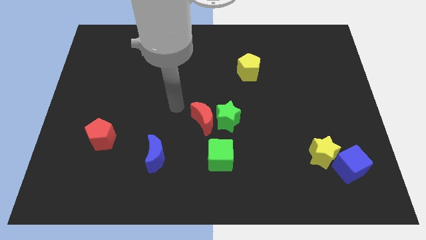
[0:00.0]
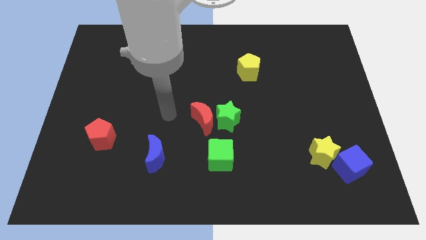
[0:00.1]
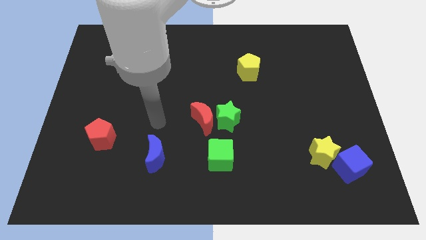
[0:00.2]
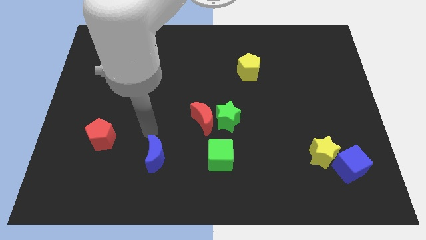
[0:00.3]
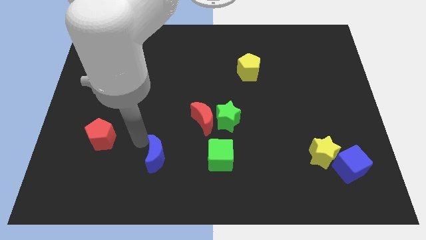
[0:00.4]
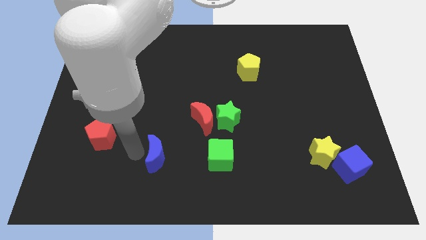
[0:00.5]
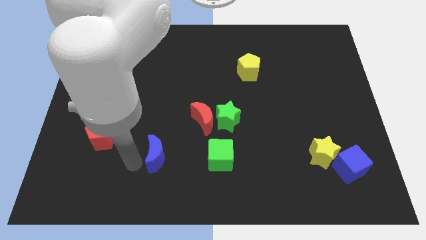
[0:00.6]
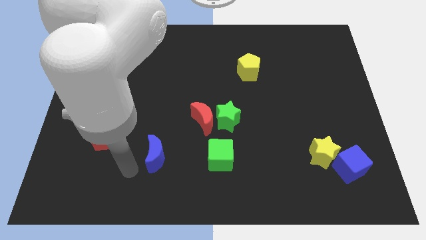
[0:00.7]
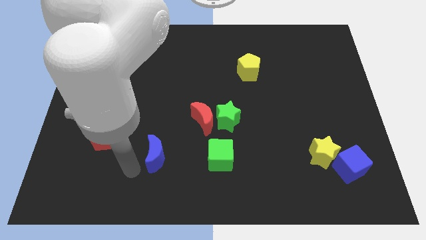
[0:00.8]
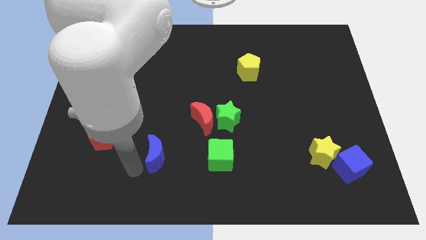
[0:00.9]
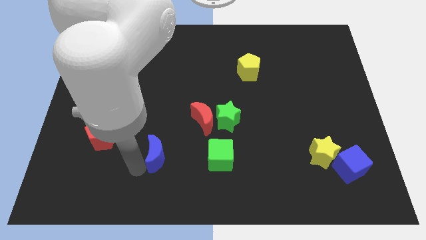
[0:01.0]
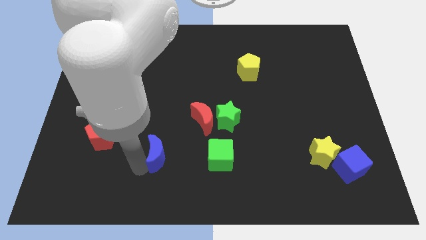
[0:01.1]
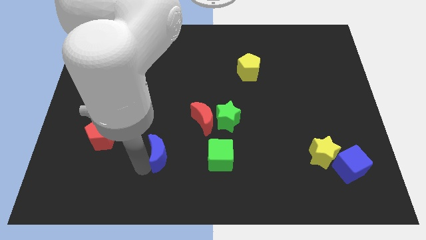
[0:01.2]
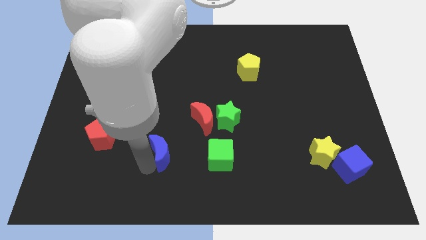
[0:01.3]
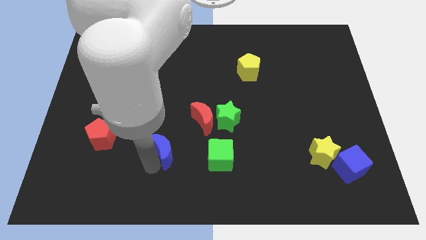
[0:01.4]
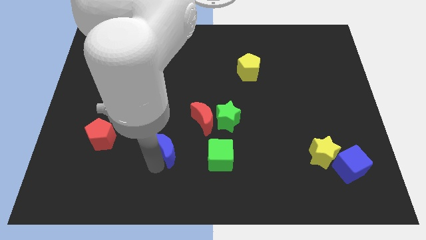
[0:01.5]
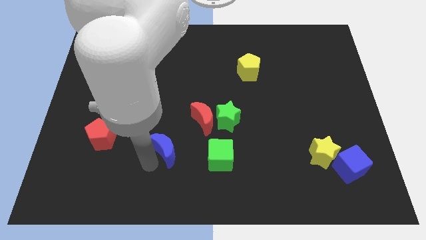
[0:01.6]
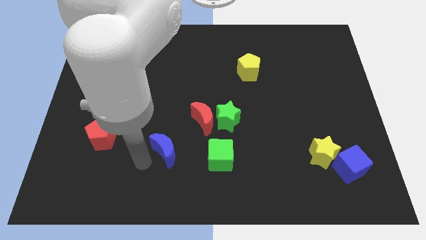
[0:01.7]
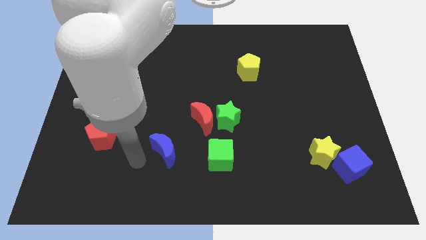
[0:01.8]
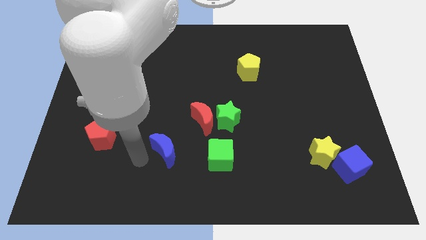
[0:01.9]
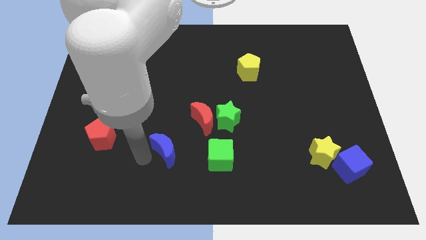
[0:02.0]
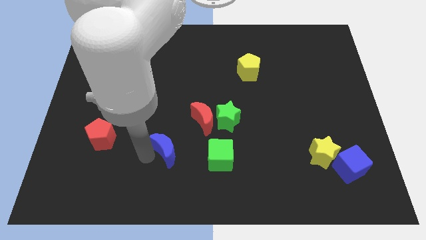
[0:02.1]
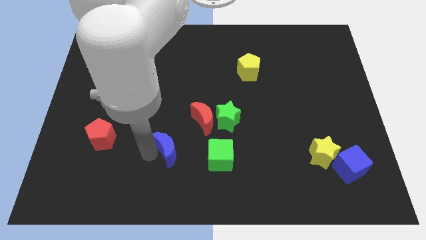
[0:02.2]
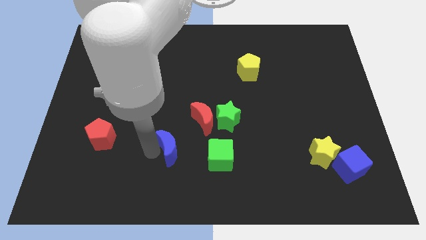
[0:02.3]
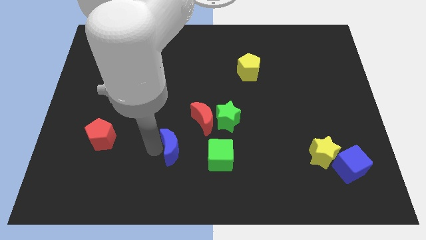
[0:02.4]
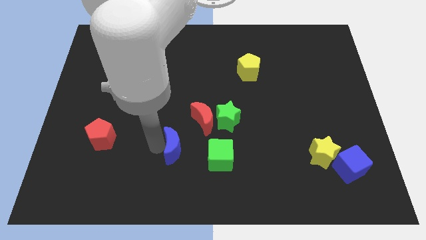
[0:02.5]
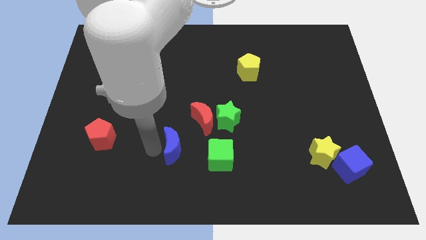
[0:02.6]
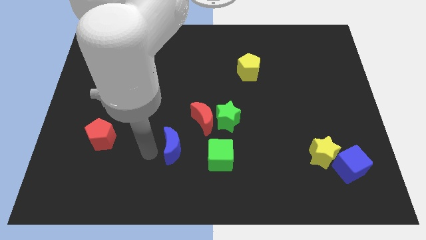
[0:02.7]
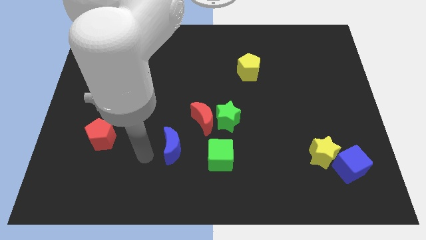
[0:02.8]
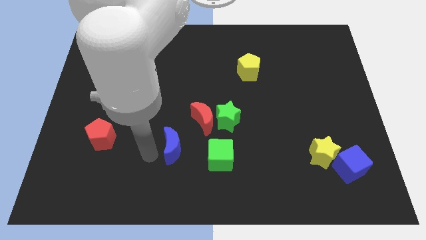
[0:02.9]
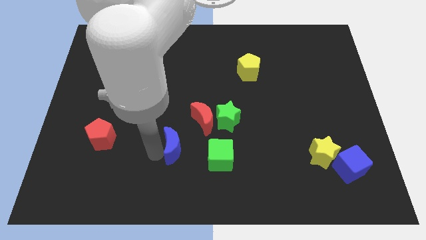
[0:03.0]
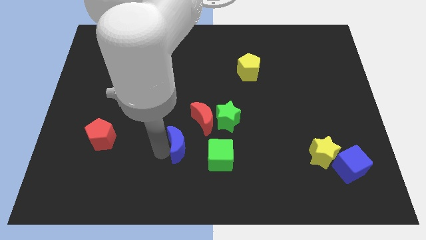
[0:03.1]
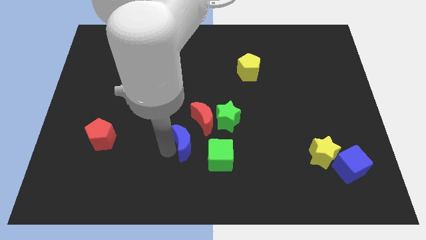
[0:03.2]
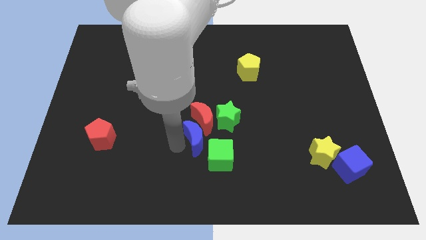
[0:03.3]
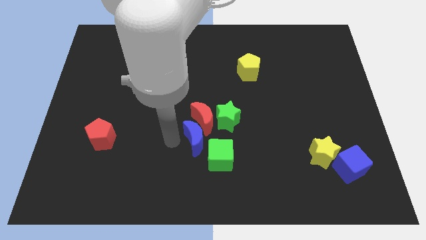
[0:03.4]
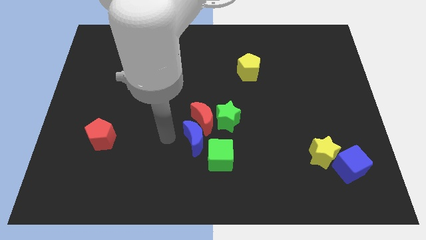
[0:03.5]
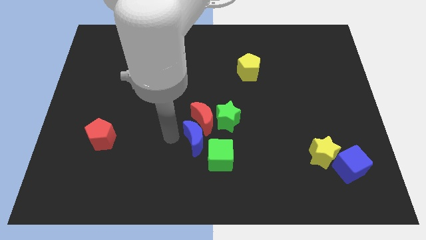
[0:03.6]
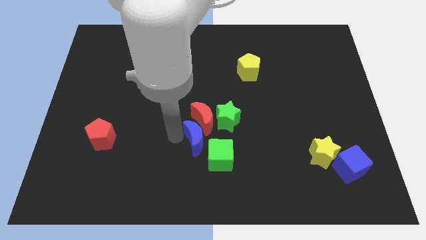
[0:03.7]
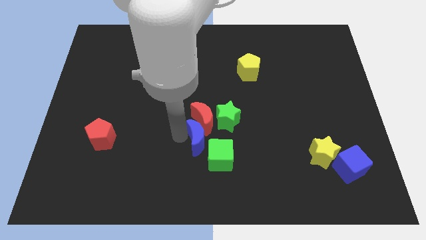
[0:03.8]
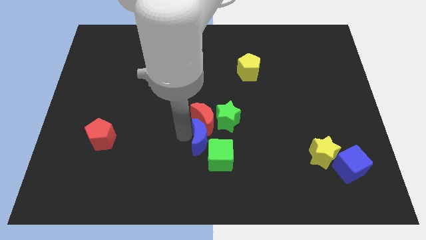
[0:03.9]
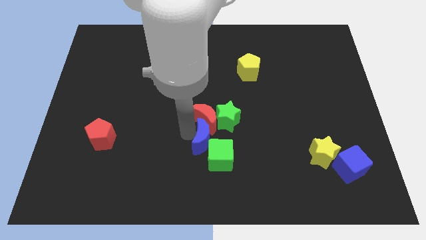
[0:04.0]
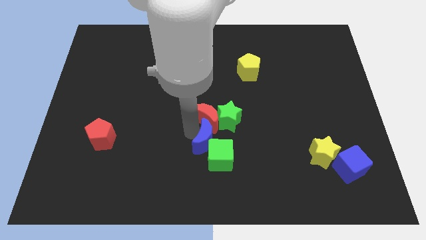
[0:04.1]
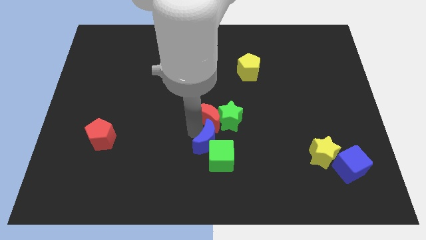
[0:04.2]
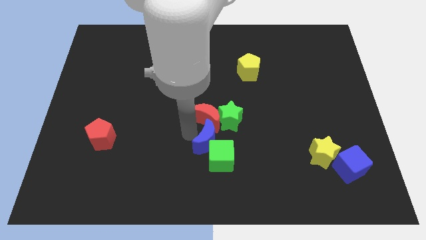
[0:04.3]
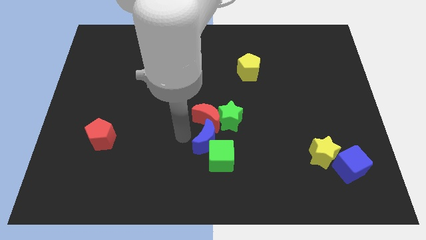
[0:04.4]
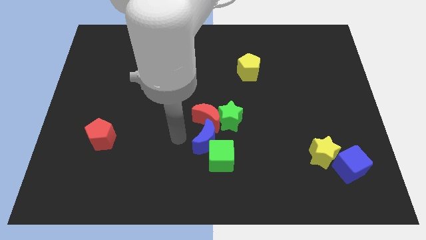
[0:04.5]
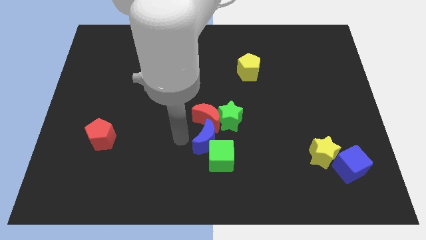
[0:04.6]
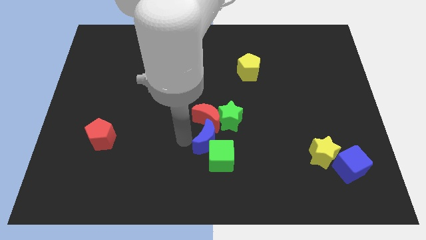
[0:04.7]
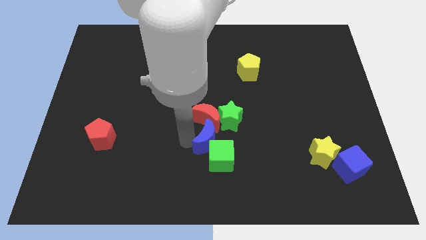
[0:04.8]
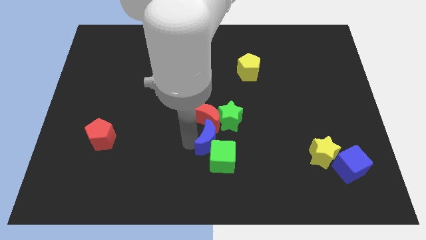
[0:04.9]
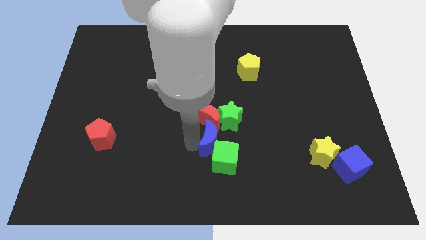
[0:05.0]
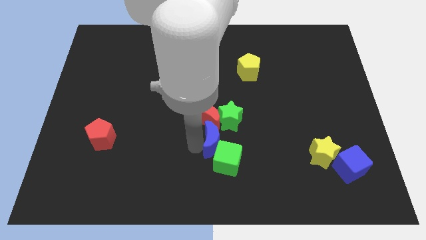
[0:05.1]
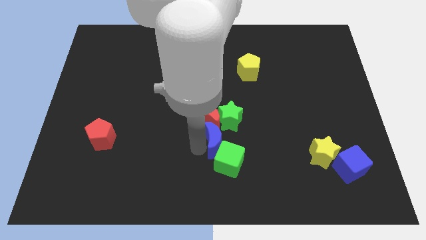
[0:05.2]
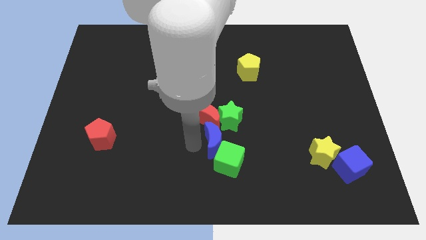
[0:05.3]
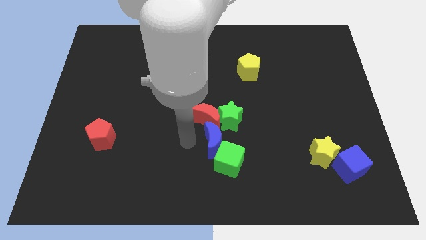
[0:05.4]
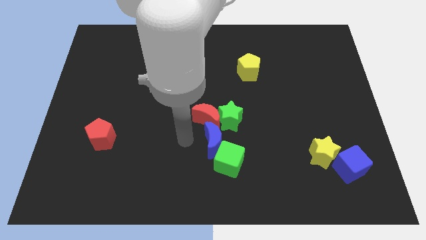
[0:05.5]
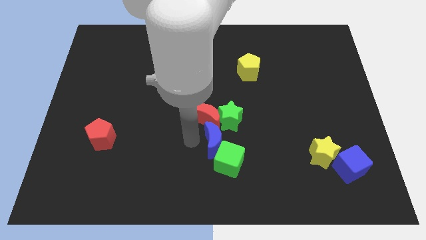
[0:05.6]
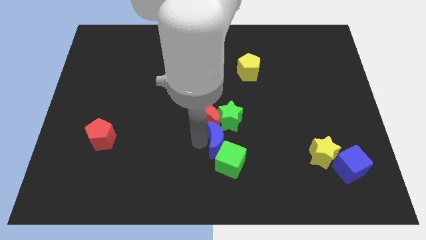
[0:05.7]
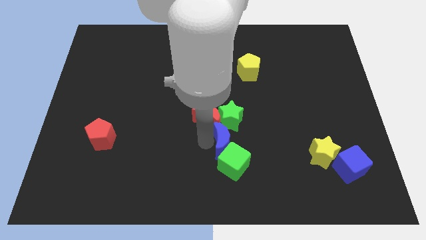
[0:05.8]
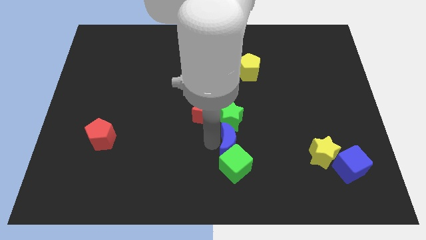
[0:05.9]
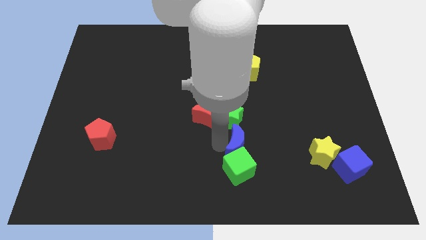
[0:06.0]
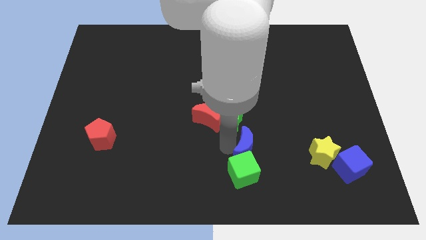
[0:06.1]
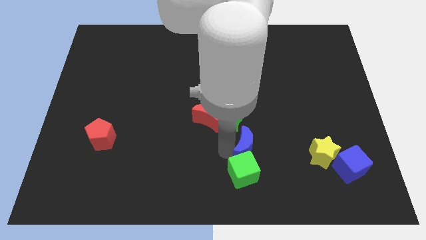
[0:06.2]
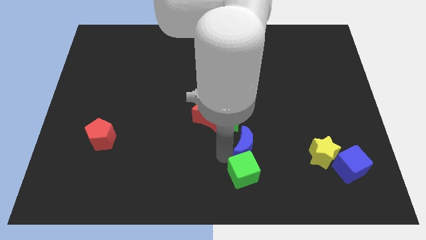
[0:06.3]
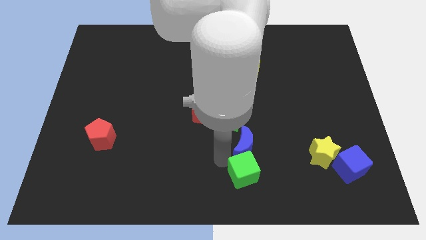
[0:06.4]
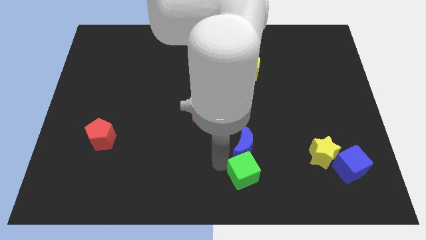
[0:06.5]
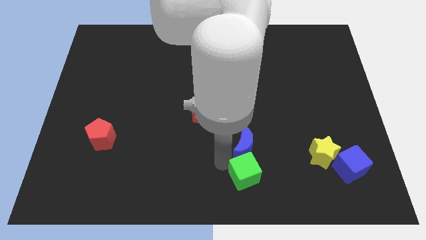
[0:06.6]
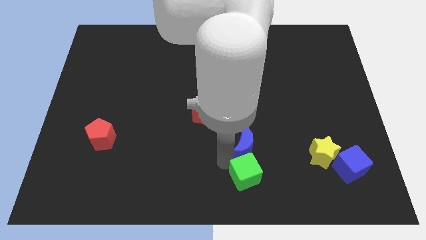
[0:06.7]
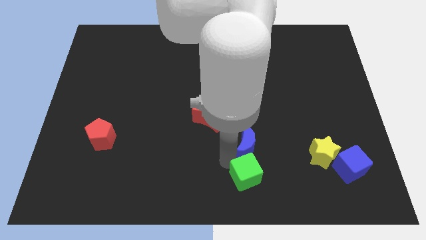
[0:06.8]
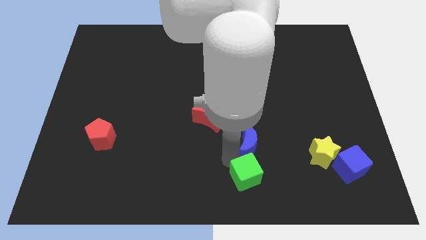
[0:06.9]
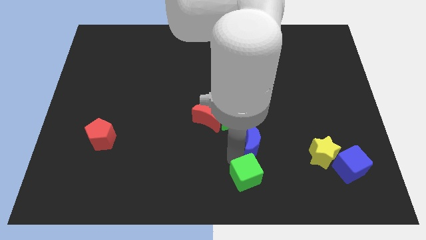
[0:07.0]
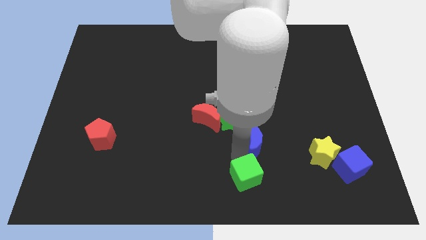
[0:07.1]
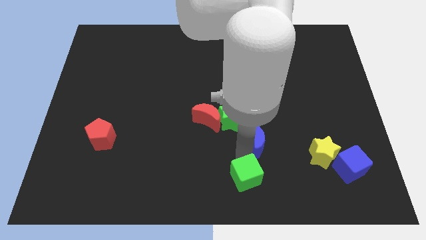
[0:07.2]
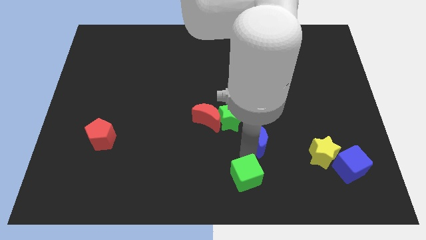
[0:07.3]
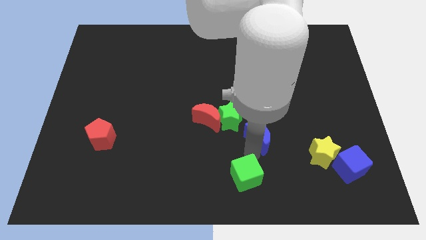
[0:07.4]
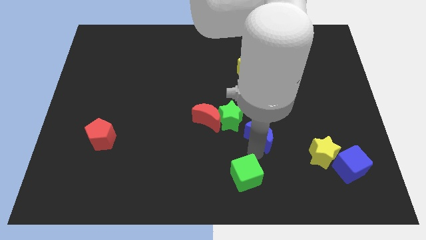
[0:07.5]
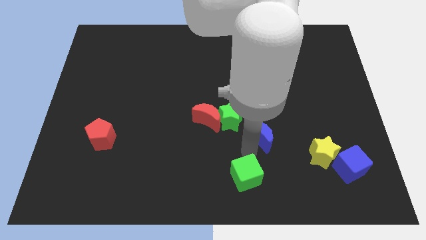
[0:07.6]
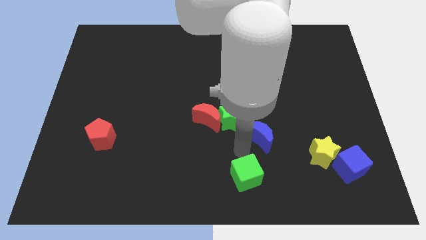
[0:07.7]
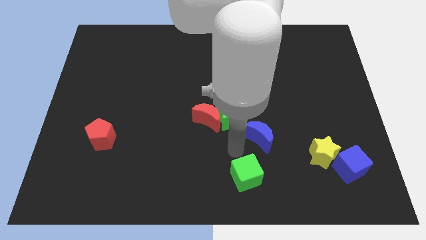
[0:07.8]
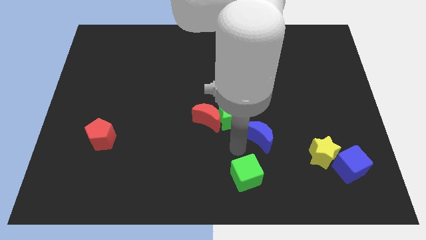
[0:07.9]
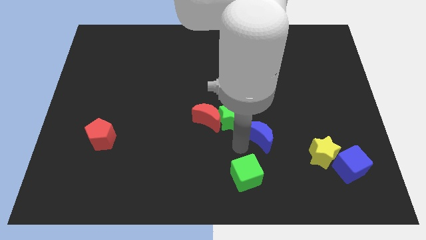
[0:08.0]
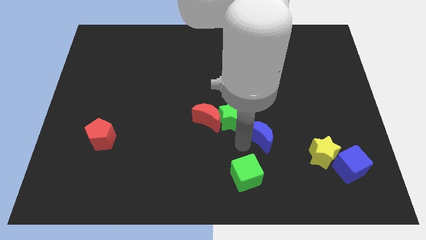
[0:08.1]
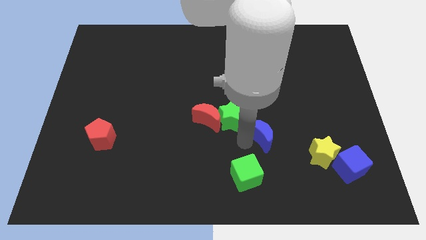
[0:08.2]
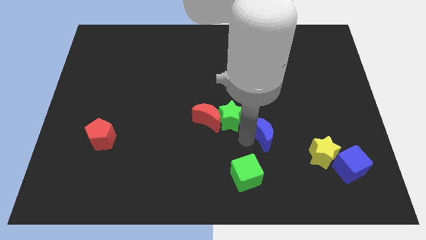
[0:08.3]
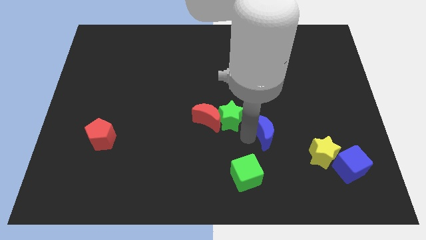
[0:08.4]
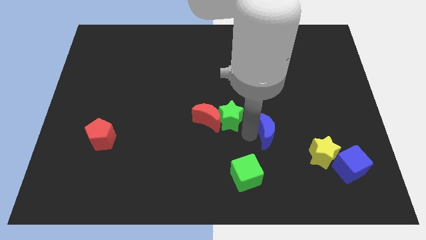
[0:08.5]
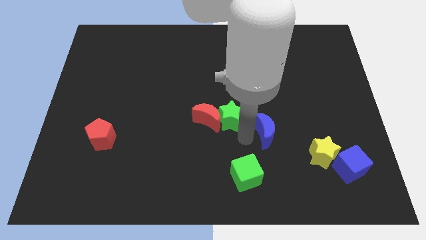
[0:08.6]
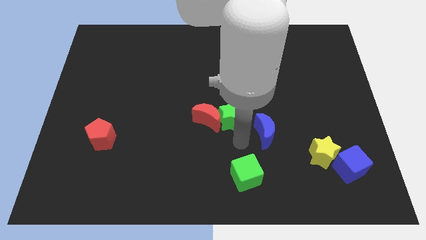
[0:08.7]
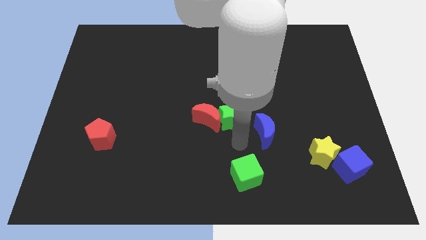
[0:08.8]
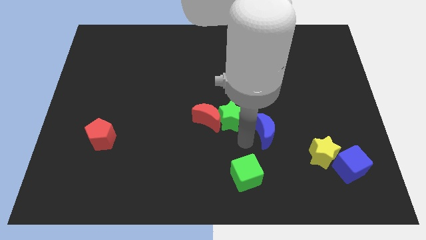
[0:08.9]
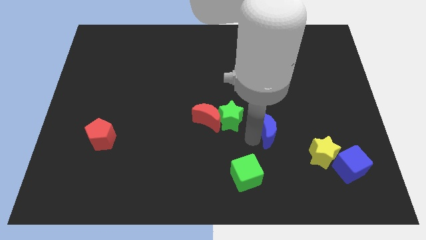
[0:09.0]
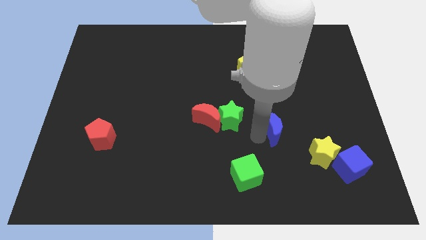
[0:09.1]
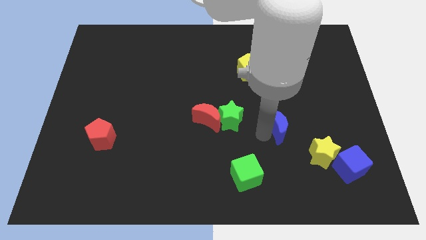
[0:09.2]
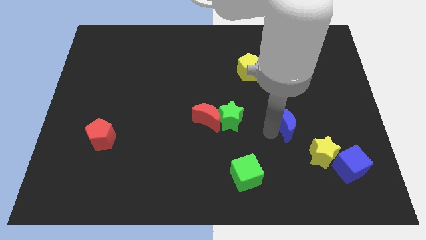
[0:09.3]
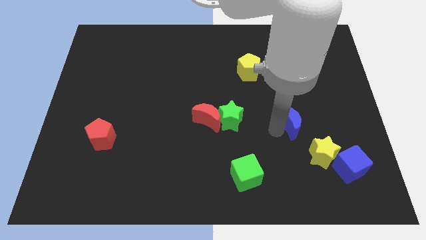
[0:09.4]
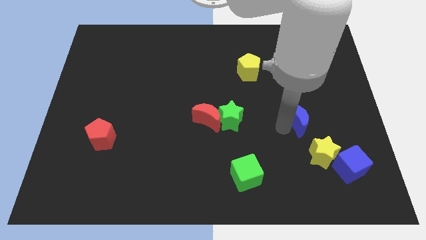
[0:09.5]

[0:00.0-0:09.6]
put the blue moon to the top side of the yellow star
